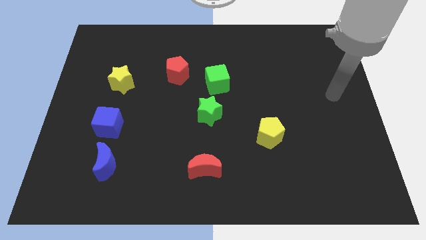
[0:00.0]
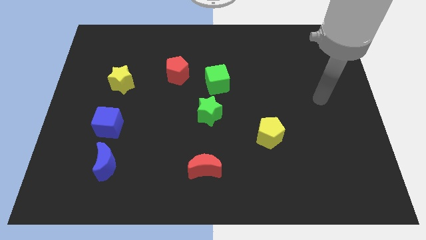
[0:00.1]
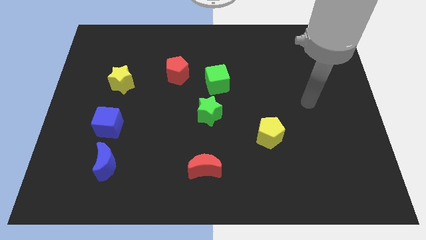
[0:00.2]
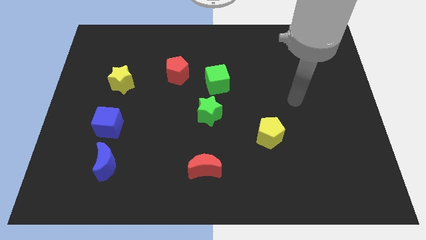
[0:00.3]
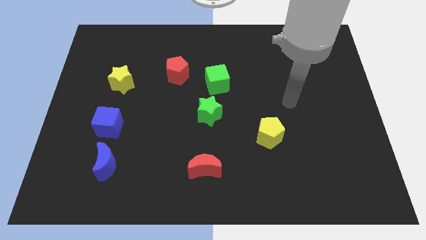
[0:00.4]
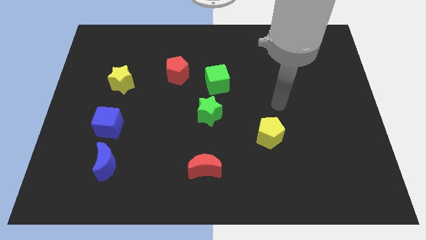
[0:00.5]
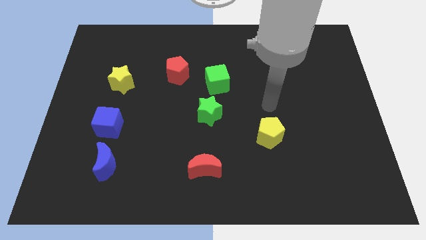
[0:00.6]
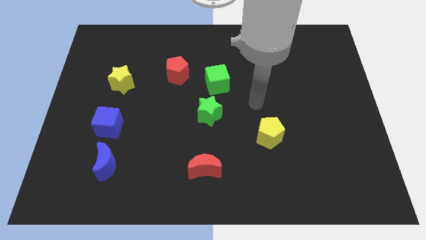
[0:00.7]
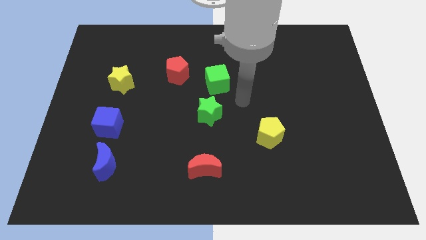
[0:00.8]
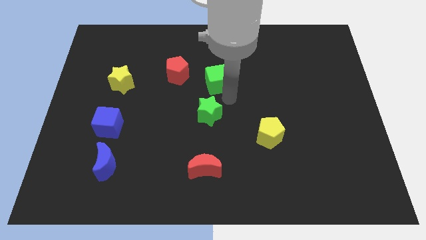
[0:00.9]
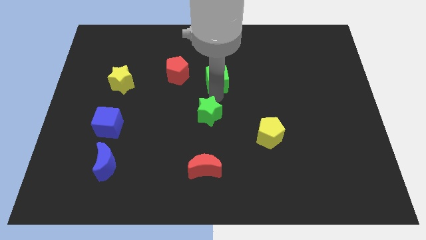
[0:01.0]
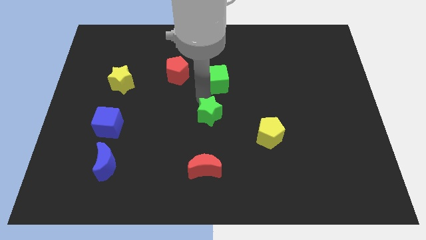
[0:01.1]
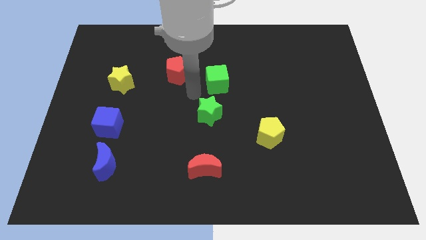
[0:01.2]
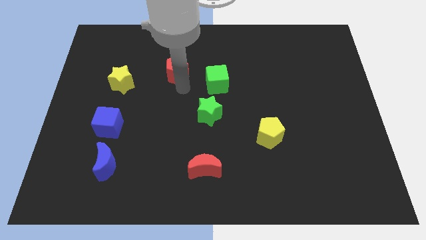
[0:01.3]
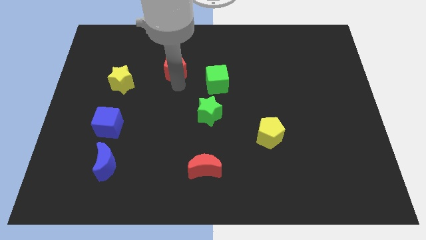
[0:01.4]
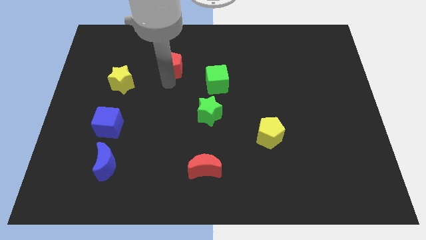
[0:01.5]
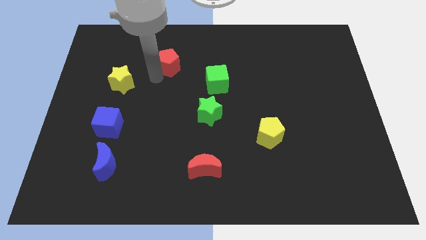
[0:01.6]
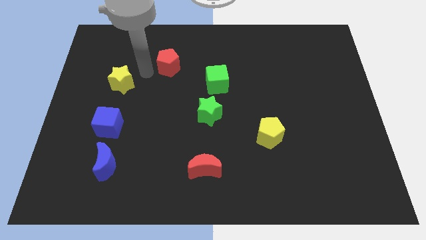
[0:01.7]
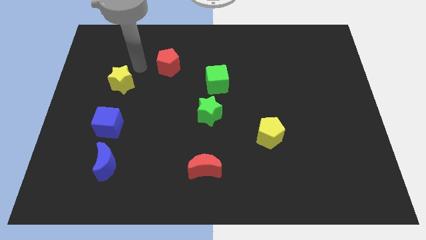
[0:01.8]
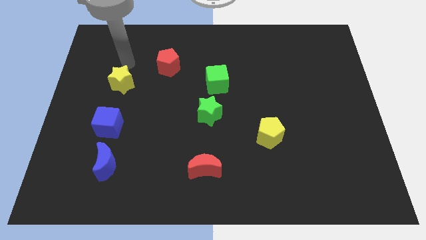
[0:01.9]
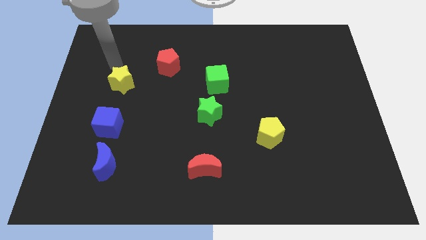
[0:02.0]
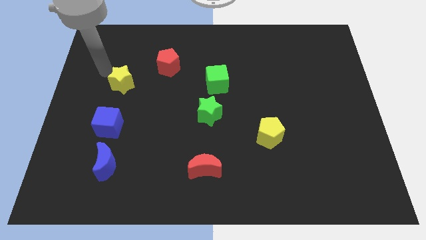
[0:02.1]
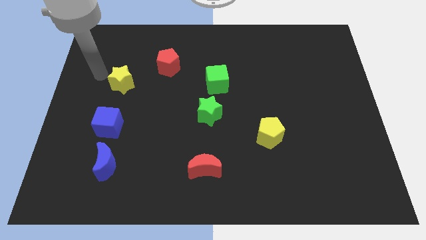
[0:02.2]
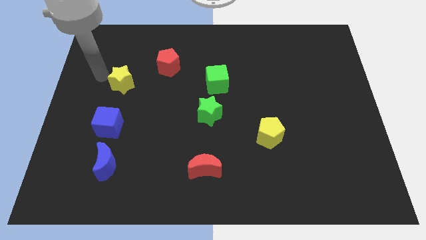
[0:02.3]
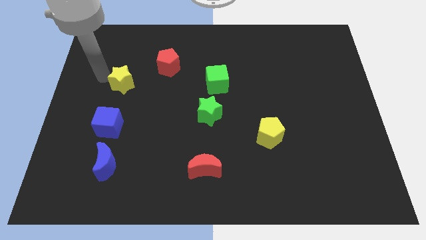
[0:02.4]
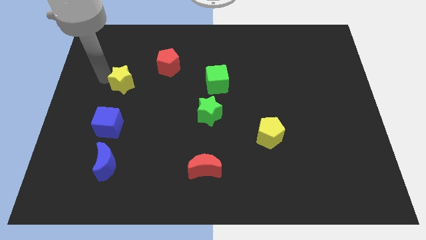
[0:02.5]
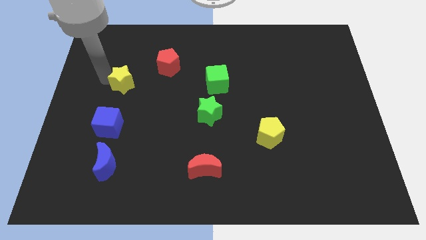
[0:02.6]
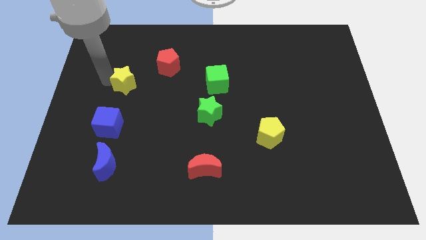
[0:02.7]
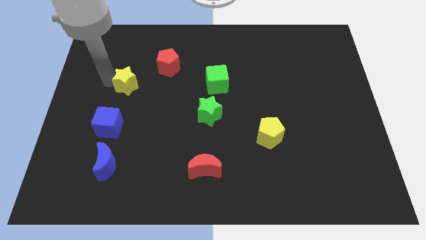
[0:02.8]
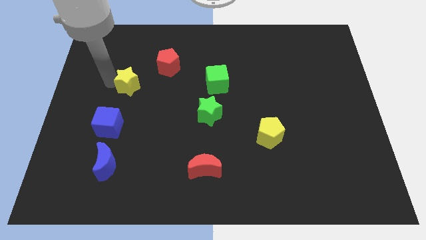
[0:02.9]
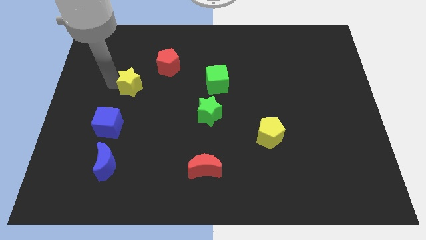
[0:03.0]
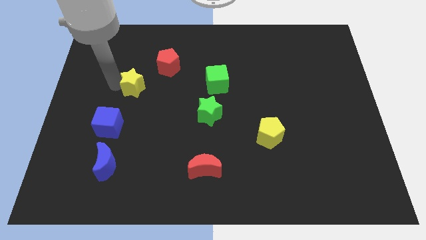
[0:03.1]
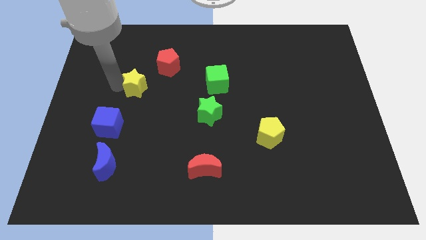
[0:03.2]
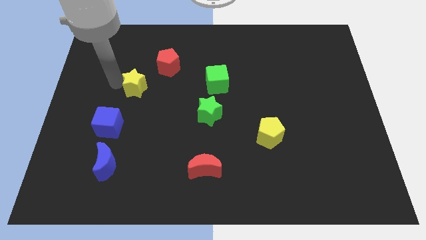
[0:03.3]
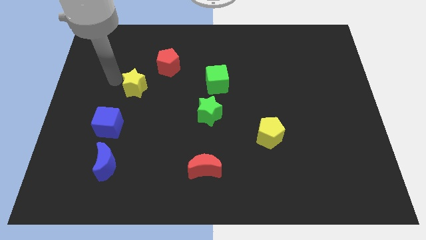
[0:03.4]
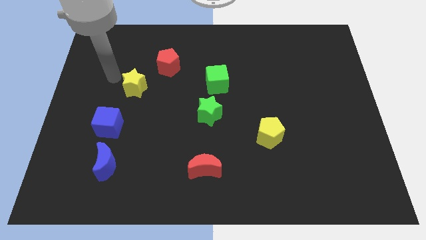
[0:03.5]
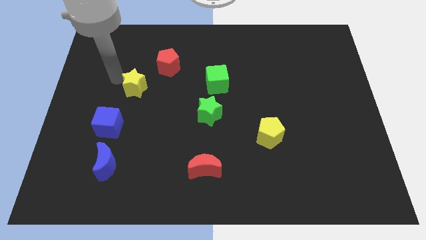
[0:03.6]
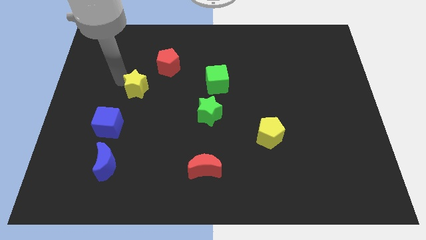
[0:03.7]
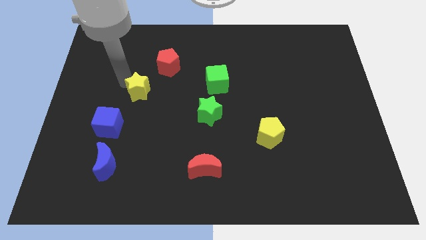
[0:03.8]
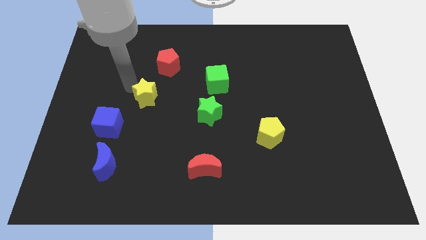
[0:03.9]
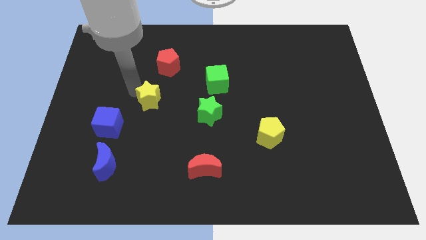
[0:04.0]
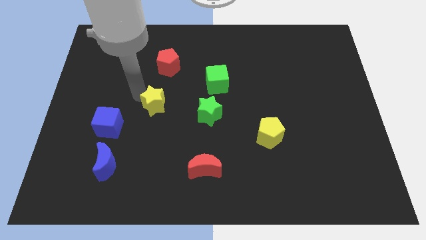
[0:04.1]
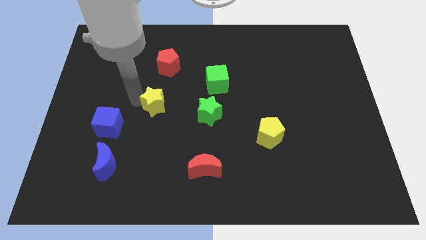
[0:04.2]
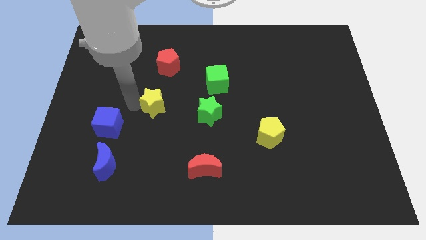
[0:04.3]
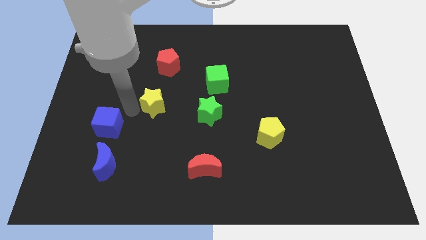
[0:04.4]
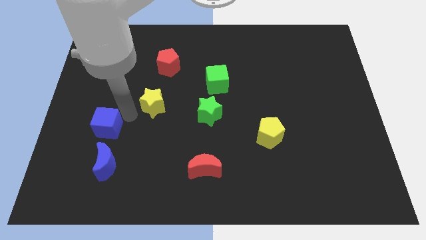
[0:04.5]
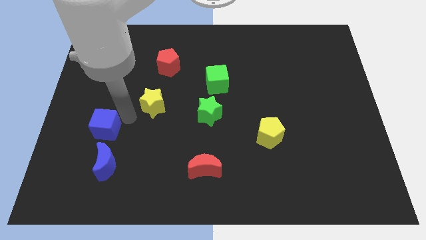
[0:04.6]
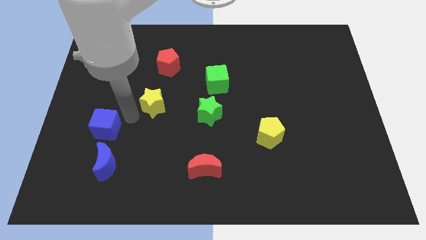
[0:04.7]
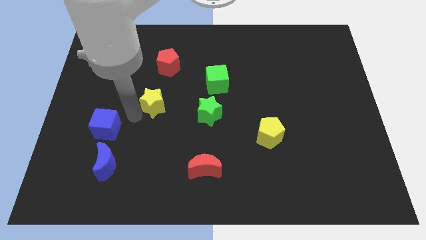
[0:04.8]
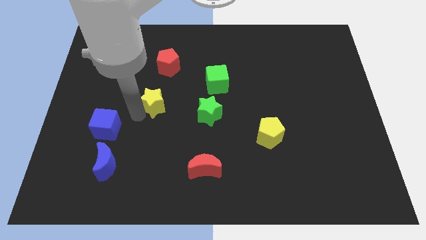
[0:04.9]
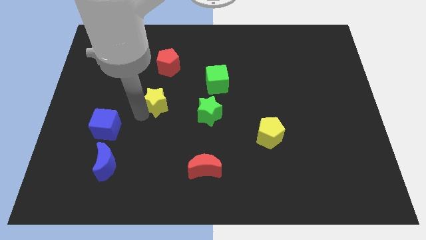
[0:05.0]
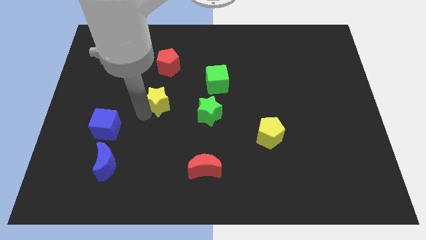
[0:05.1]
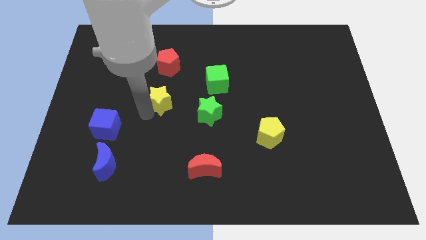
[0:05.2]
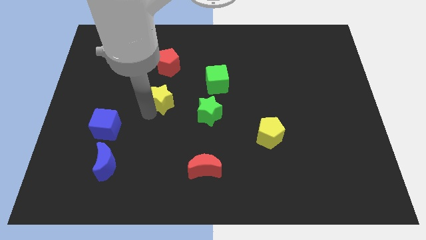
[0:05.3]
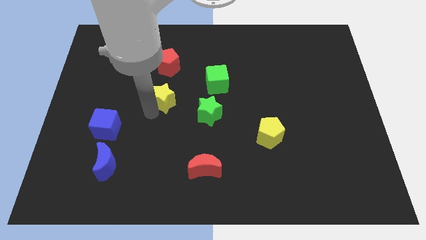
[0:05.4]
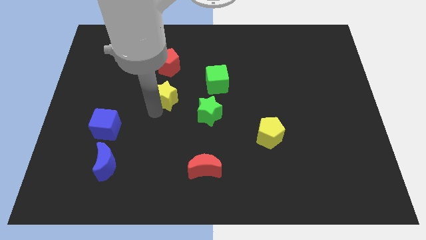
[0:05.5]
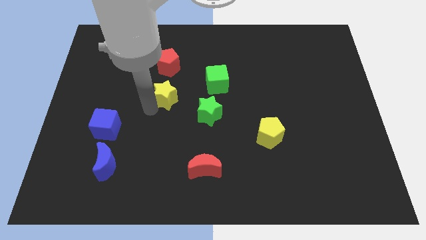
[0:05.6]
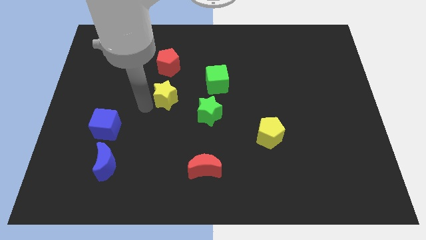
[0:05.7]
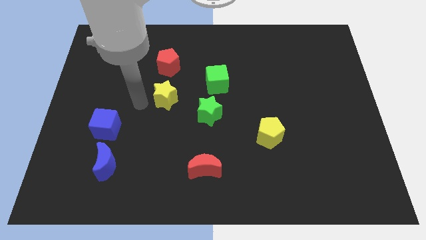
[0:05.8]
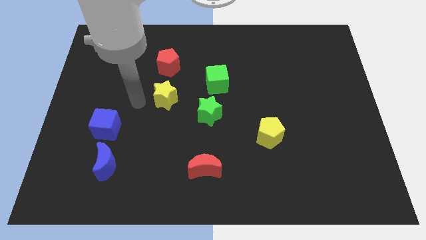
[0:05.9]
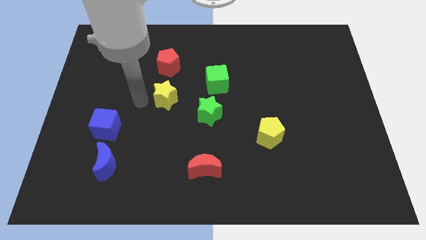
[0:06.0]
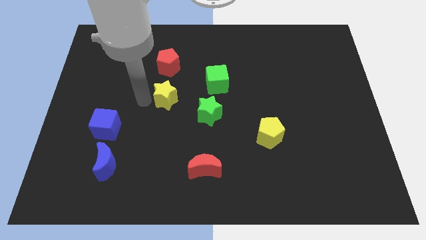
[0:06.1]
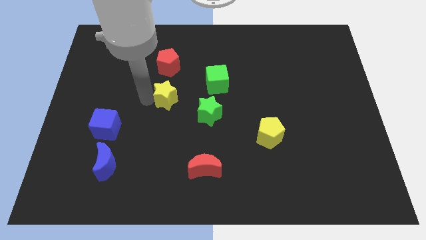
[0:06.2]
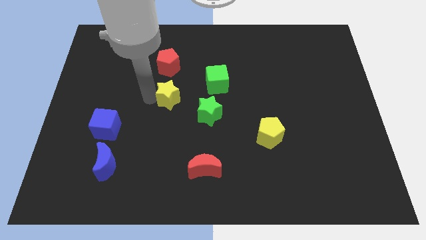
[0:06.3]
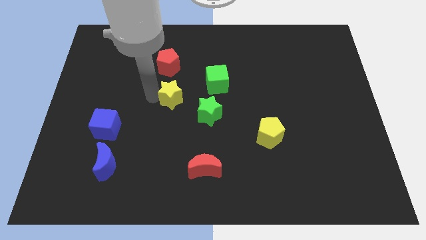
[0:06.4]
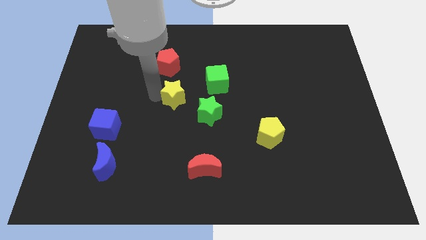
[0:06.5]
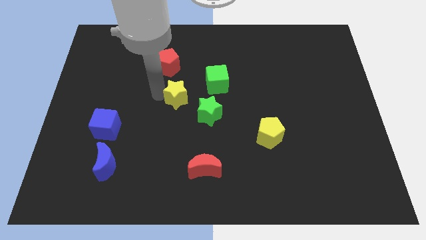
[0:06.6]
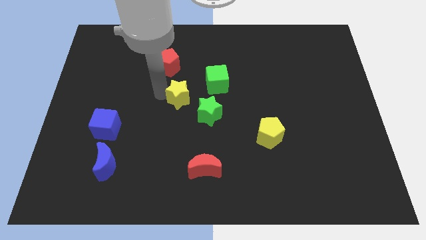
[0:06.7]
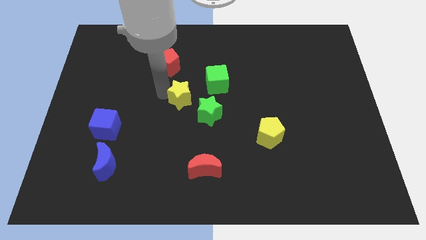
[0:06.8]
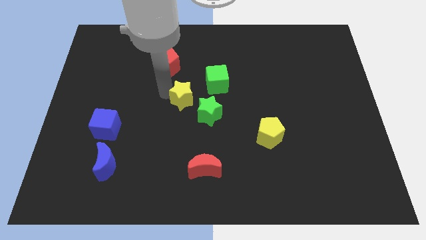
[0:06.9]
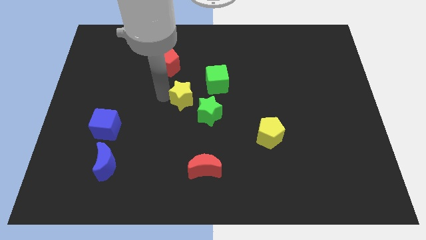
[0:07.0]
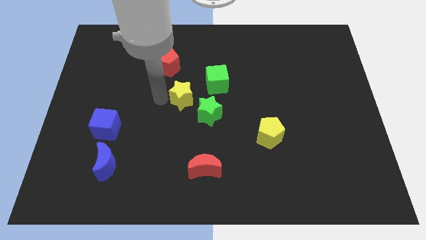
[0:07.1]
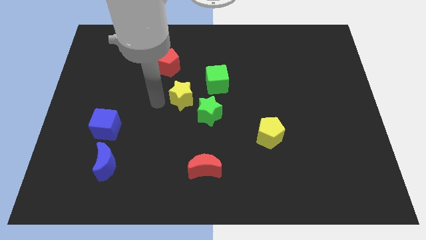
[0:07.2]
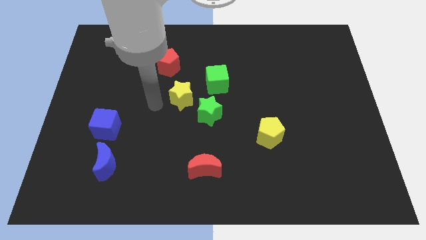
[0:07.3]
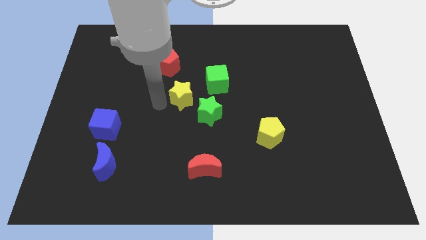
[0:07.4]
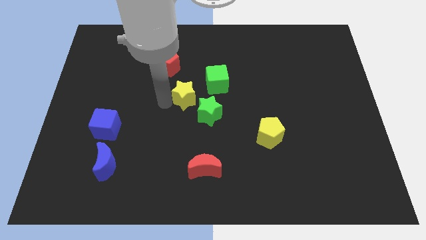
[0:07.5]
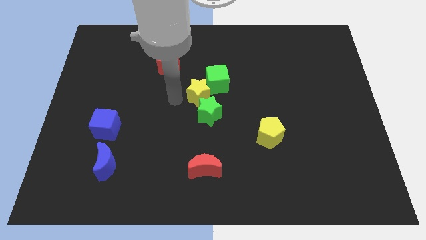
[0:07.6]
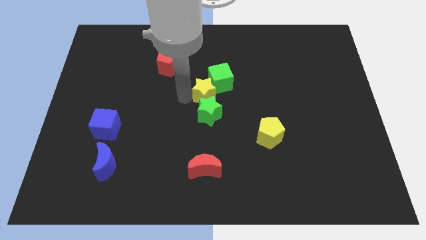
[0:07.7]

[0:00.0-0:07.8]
move the yellow star to the right

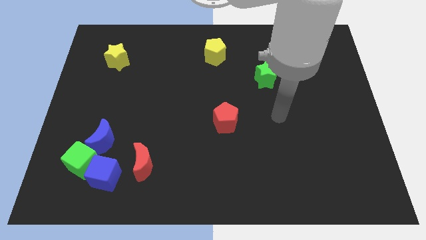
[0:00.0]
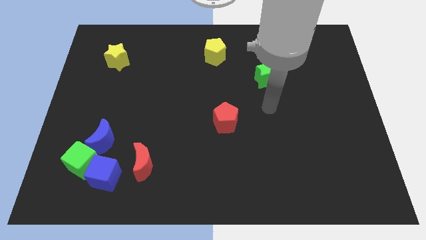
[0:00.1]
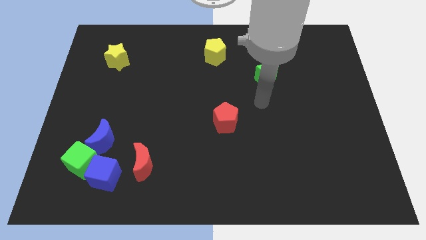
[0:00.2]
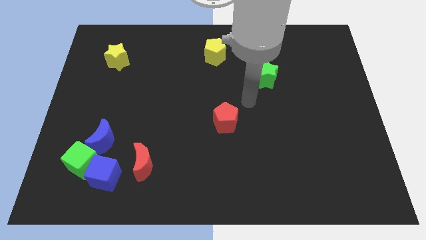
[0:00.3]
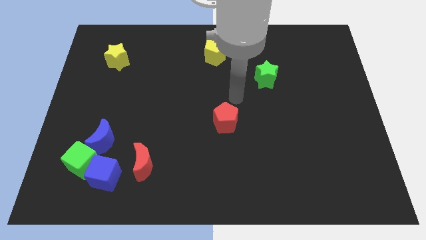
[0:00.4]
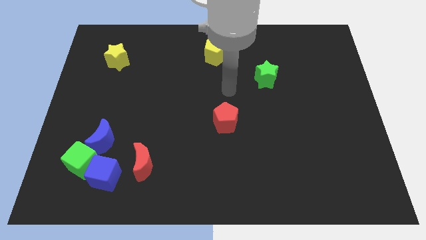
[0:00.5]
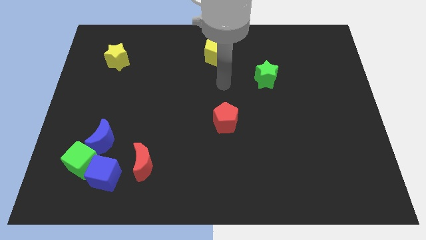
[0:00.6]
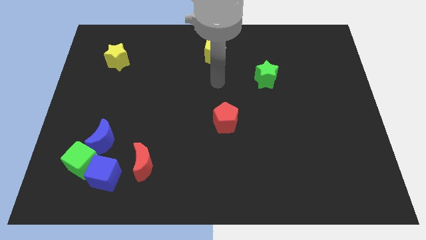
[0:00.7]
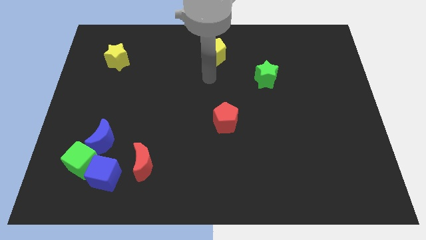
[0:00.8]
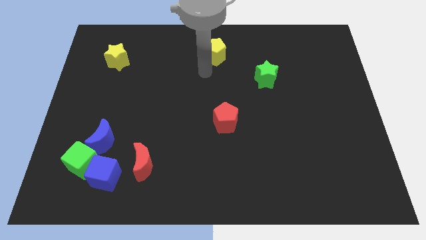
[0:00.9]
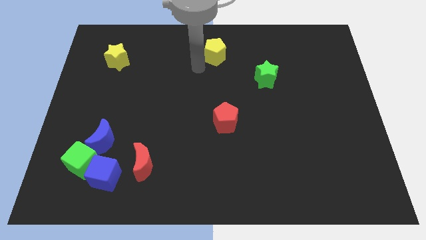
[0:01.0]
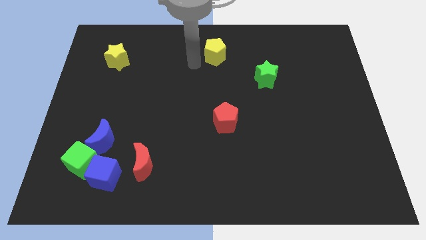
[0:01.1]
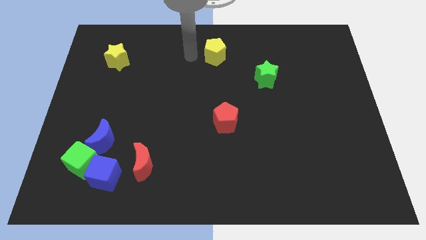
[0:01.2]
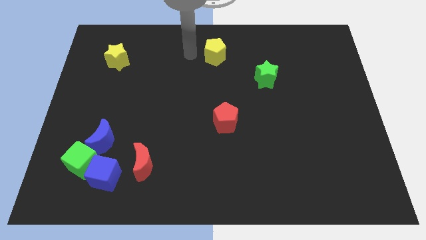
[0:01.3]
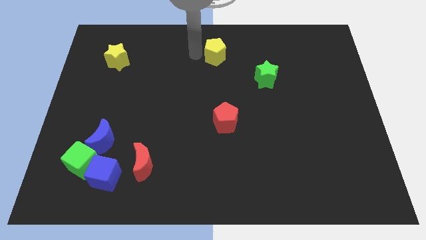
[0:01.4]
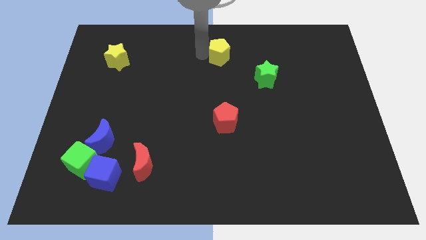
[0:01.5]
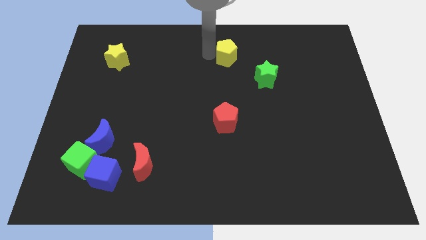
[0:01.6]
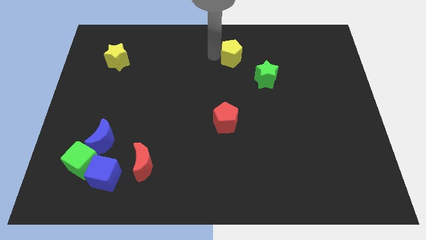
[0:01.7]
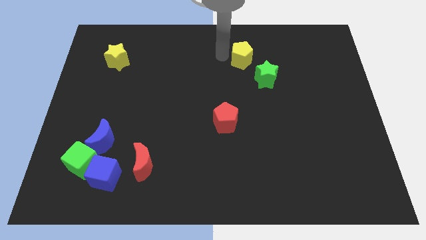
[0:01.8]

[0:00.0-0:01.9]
move the yellow pentagon a little bit to the right
